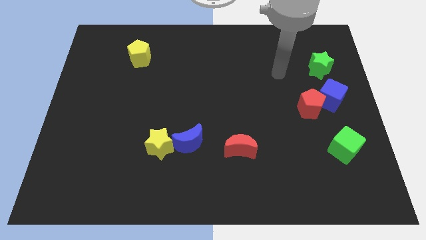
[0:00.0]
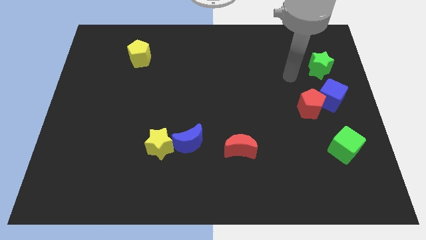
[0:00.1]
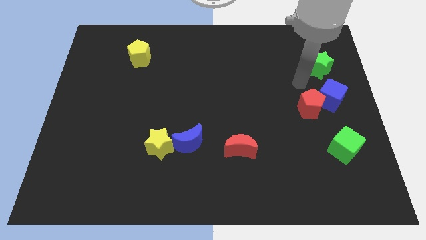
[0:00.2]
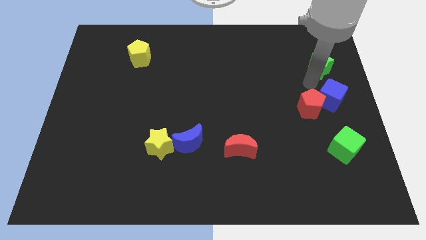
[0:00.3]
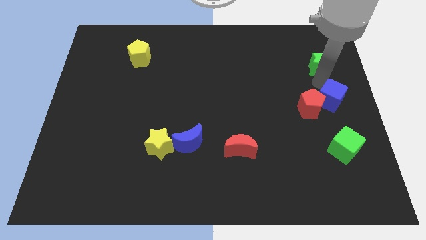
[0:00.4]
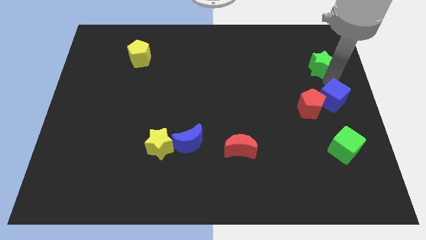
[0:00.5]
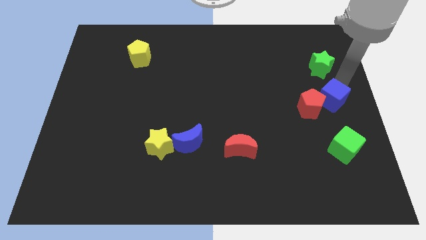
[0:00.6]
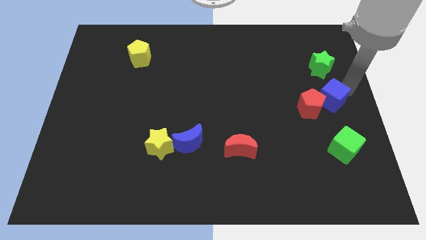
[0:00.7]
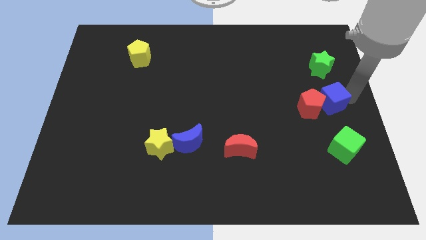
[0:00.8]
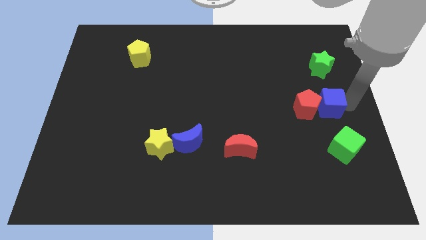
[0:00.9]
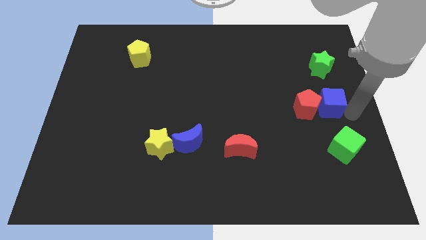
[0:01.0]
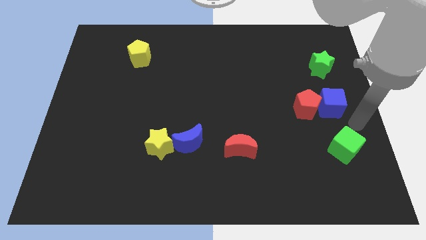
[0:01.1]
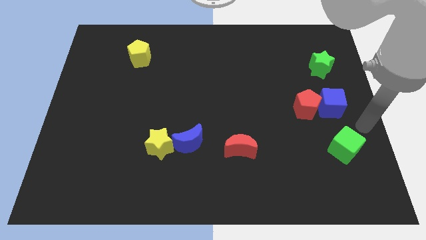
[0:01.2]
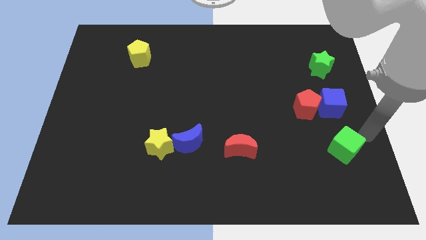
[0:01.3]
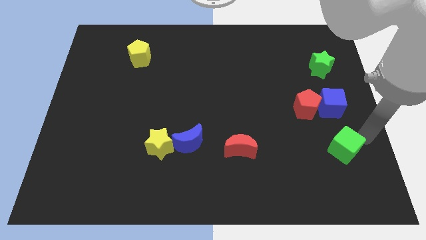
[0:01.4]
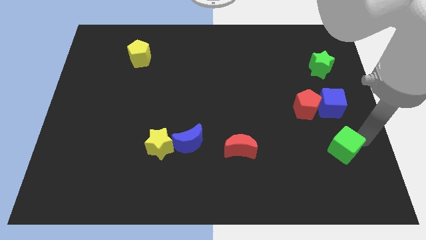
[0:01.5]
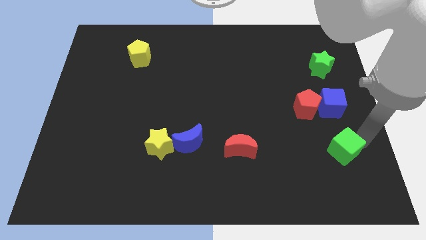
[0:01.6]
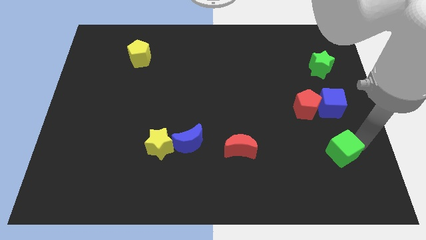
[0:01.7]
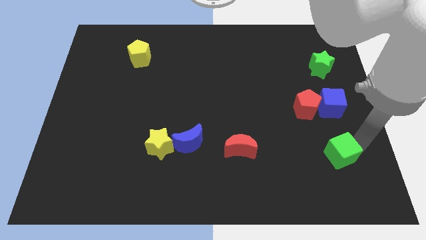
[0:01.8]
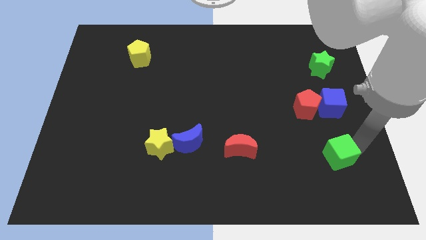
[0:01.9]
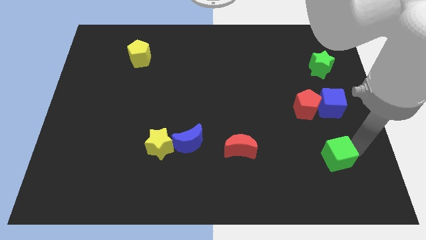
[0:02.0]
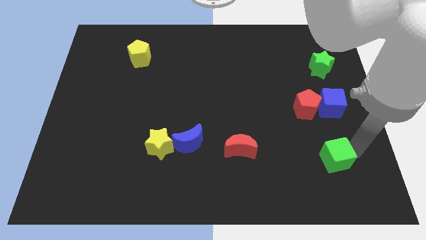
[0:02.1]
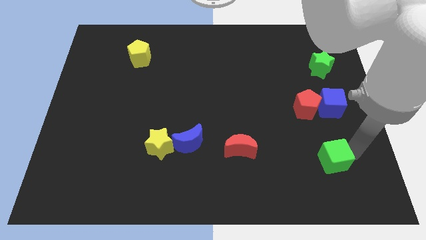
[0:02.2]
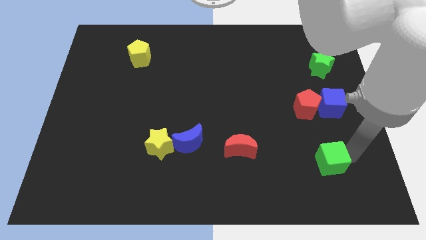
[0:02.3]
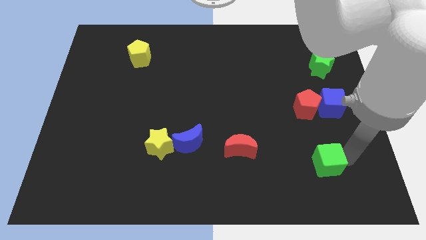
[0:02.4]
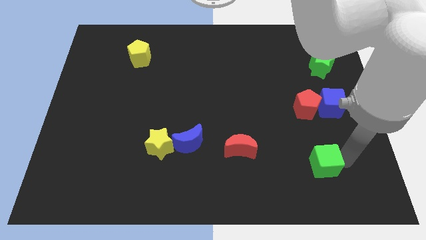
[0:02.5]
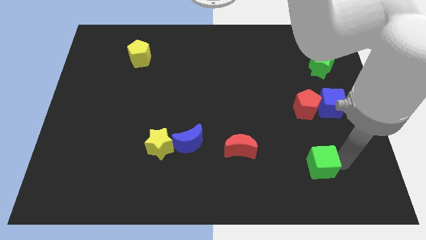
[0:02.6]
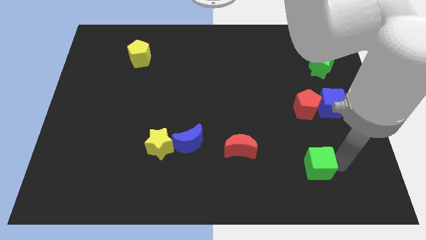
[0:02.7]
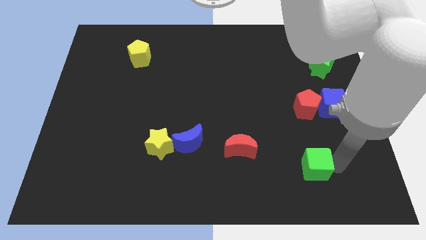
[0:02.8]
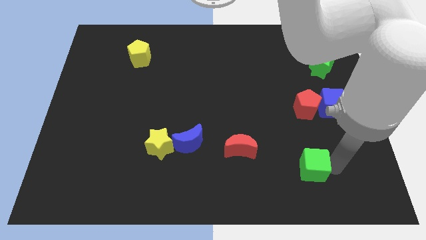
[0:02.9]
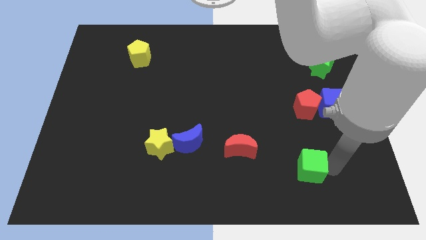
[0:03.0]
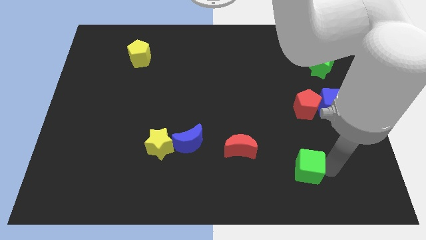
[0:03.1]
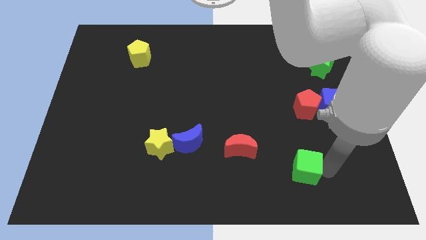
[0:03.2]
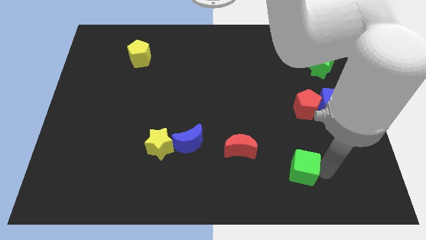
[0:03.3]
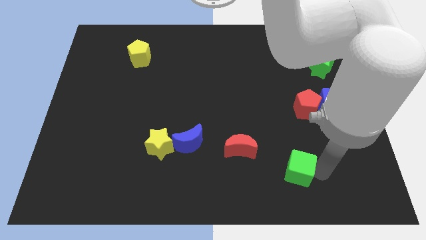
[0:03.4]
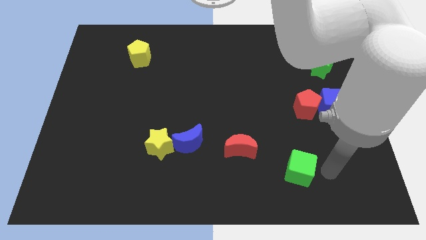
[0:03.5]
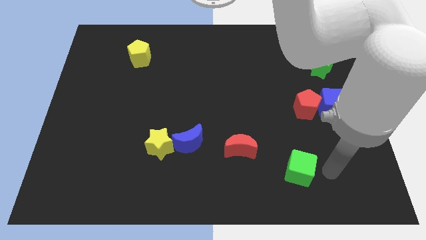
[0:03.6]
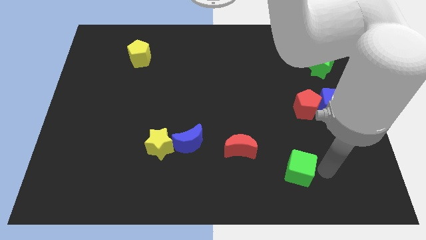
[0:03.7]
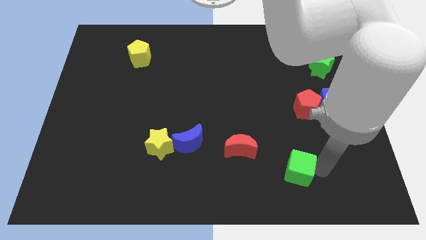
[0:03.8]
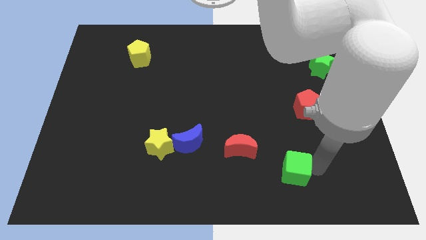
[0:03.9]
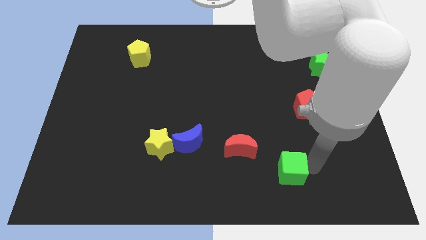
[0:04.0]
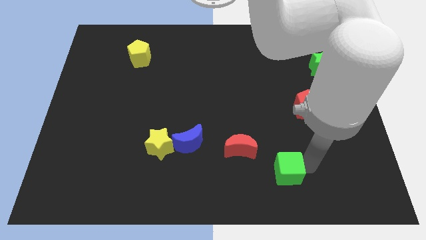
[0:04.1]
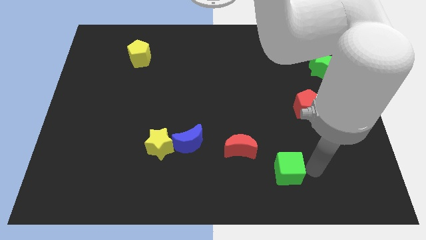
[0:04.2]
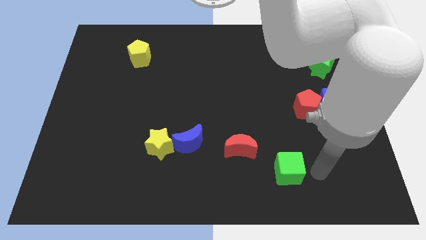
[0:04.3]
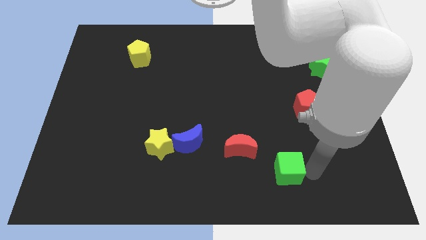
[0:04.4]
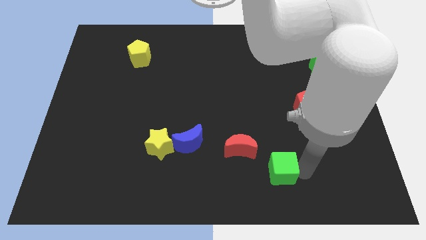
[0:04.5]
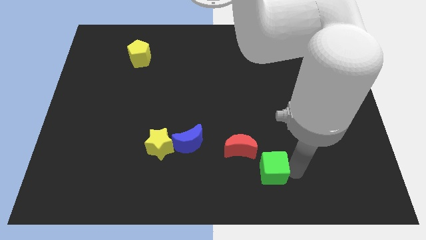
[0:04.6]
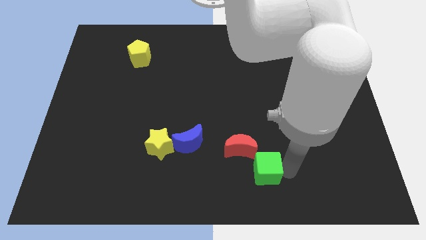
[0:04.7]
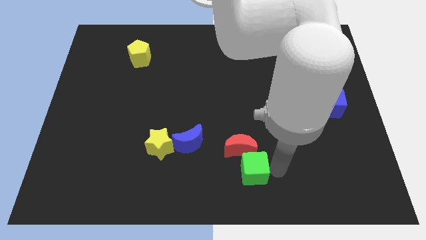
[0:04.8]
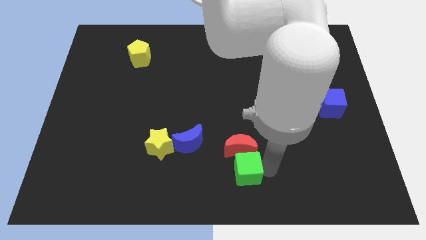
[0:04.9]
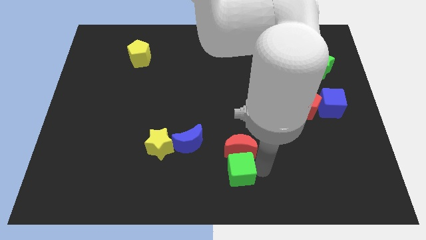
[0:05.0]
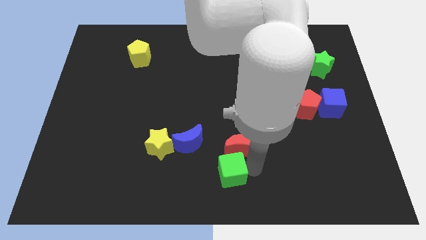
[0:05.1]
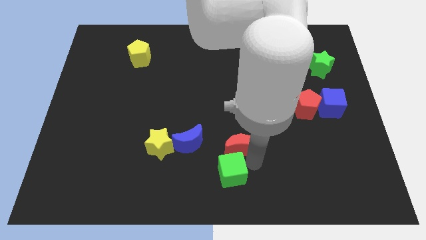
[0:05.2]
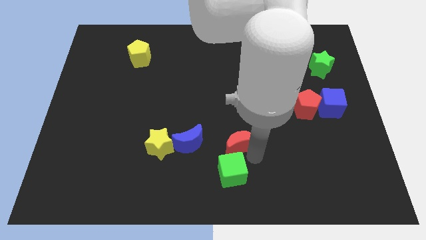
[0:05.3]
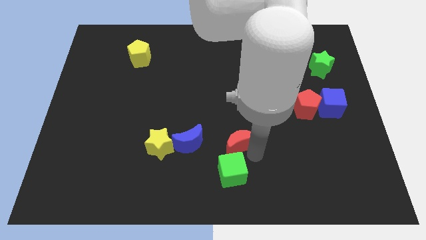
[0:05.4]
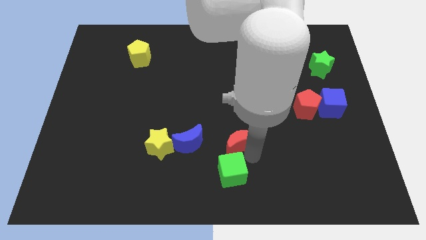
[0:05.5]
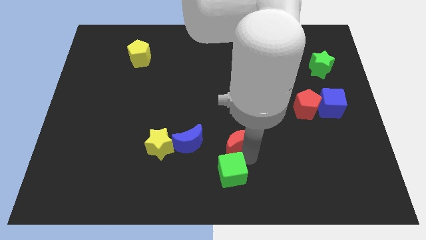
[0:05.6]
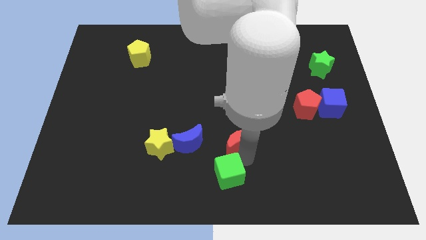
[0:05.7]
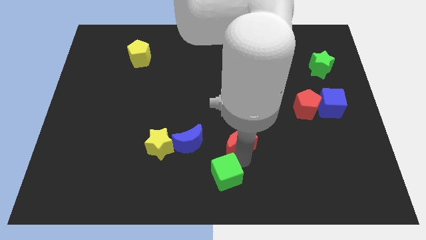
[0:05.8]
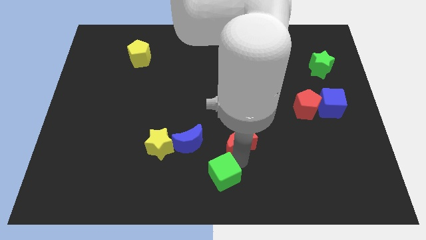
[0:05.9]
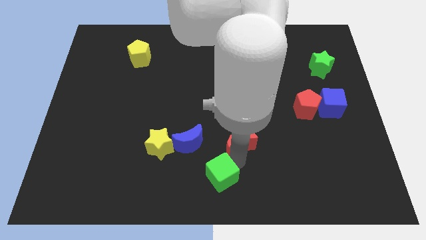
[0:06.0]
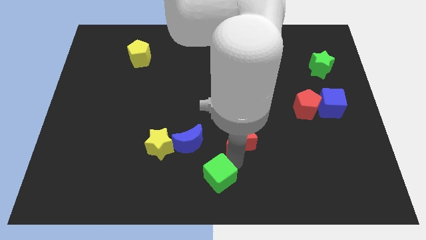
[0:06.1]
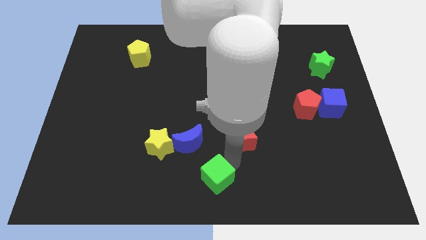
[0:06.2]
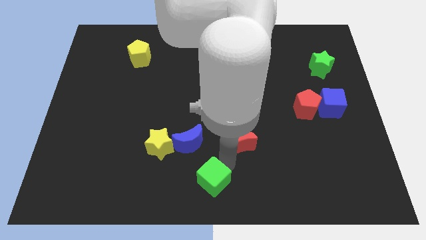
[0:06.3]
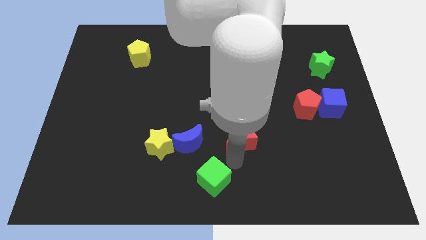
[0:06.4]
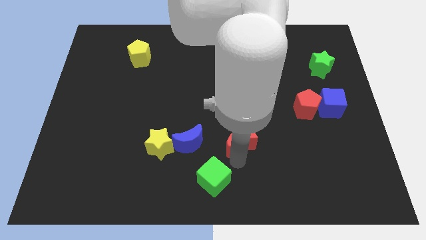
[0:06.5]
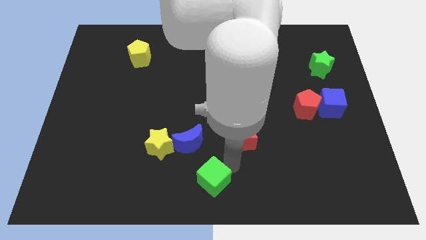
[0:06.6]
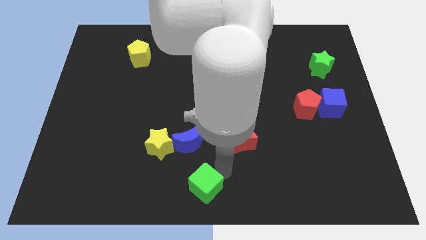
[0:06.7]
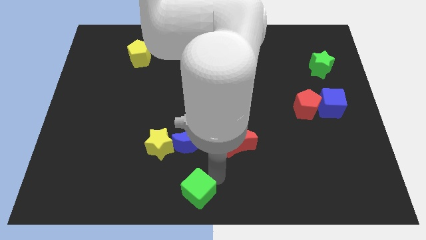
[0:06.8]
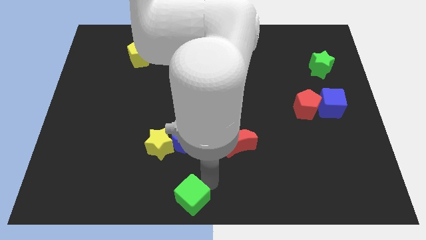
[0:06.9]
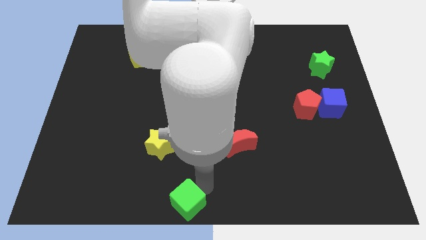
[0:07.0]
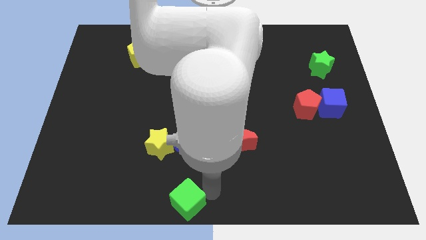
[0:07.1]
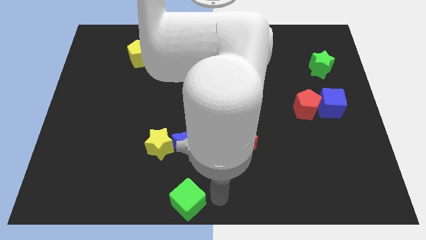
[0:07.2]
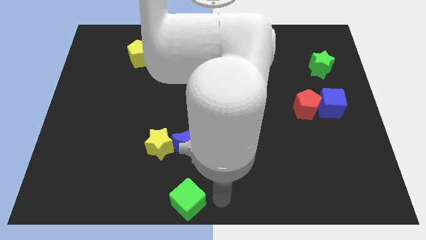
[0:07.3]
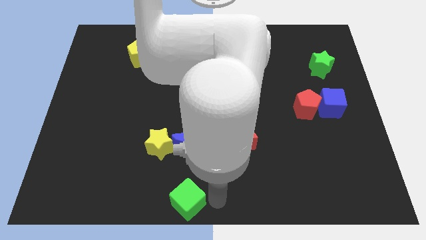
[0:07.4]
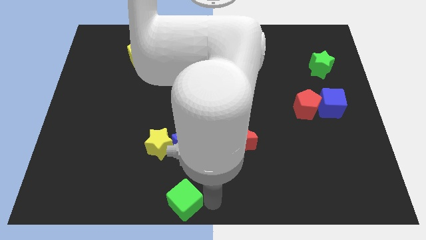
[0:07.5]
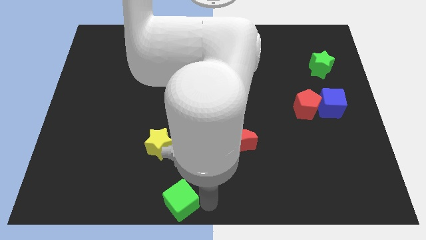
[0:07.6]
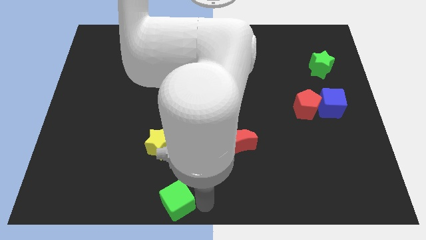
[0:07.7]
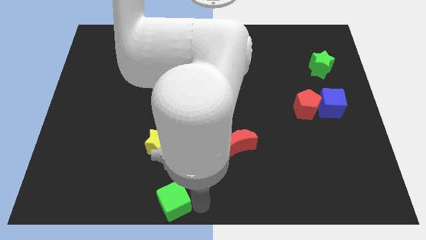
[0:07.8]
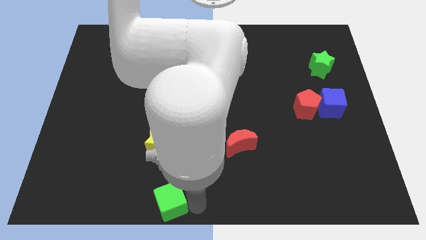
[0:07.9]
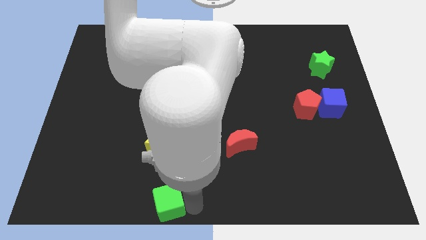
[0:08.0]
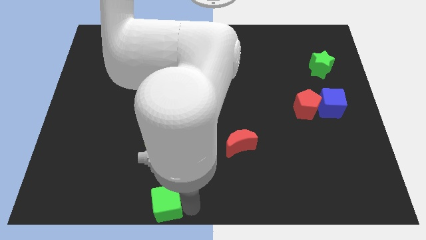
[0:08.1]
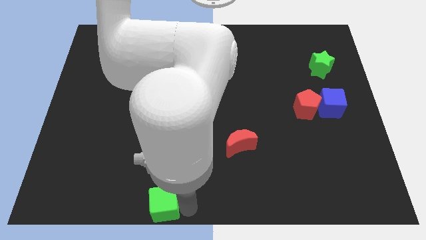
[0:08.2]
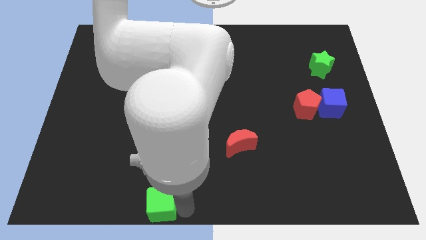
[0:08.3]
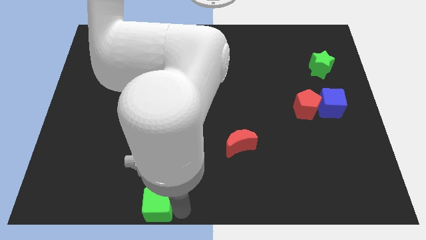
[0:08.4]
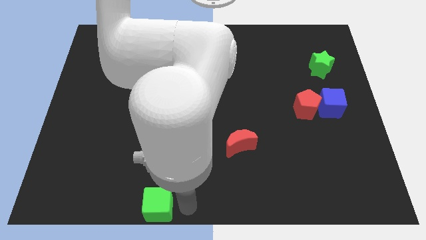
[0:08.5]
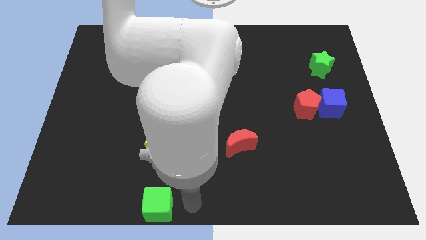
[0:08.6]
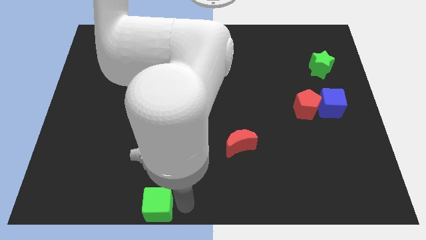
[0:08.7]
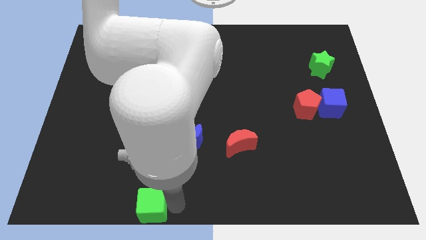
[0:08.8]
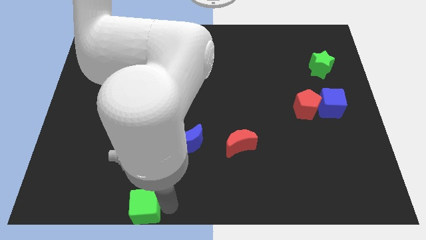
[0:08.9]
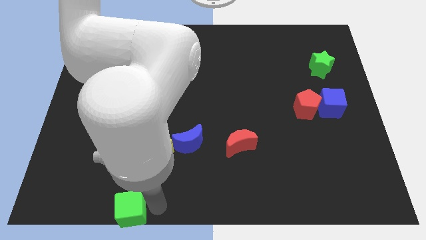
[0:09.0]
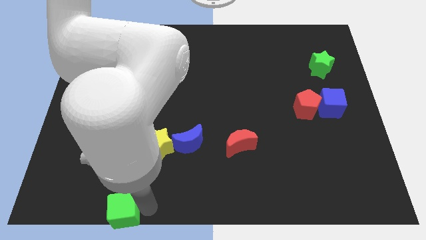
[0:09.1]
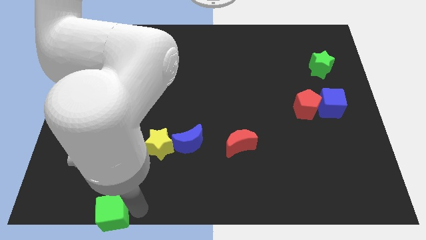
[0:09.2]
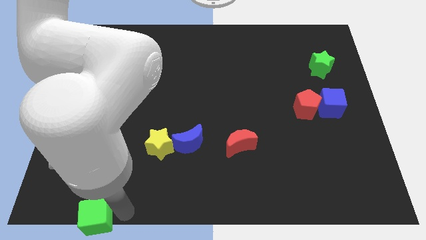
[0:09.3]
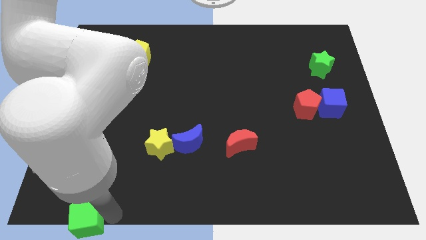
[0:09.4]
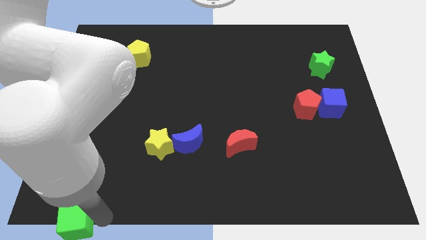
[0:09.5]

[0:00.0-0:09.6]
put the green cube to the lower left corner
